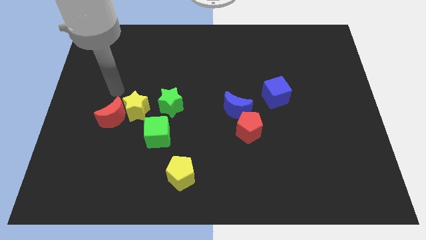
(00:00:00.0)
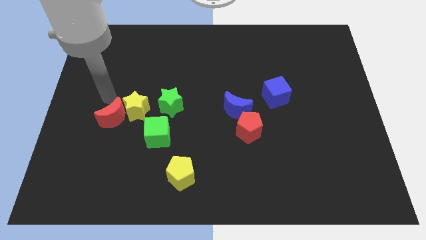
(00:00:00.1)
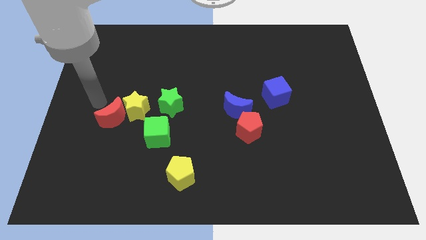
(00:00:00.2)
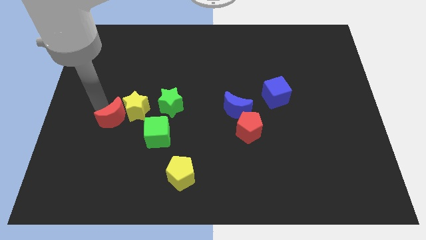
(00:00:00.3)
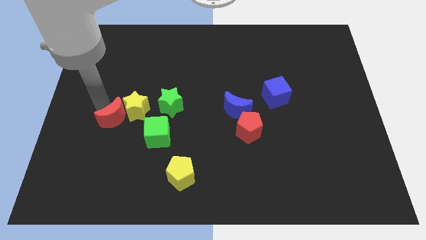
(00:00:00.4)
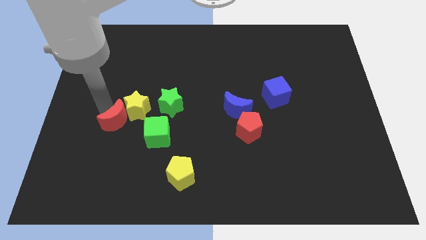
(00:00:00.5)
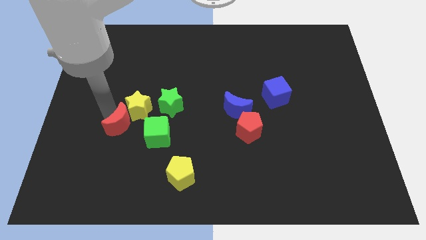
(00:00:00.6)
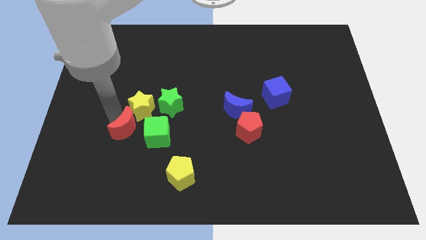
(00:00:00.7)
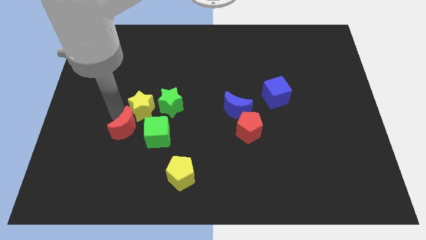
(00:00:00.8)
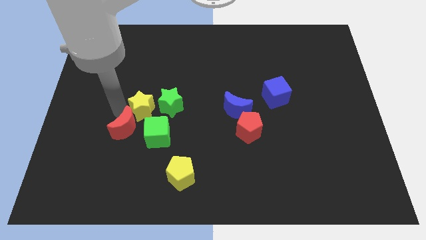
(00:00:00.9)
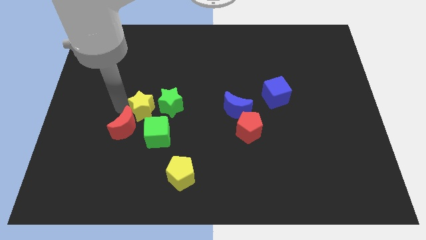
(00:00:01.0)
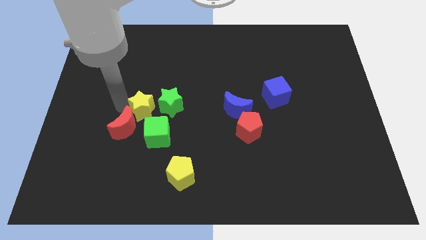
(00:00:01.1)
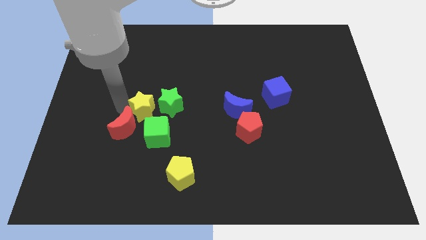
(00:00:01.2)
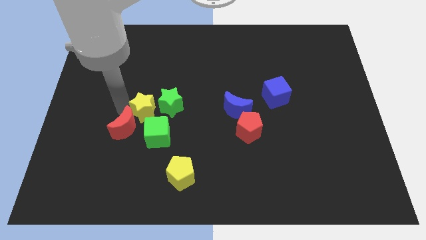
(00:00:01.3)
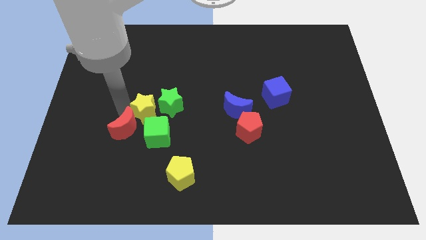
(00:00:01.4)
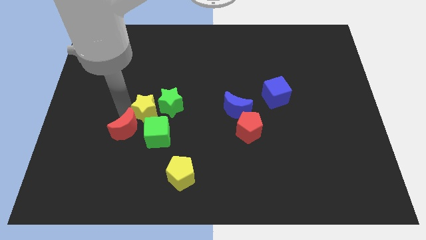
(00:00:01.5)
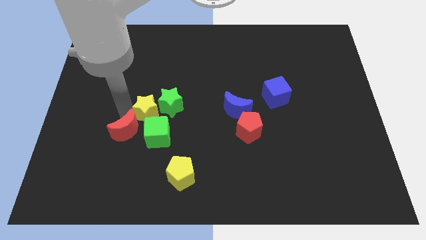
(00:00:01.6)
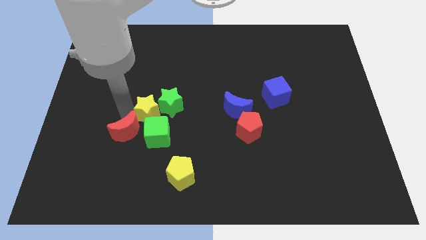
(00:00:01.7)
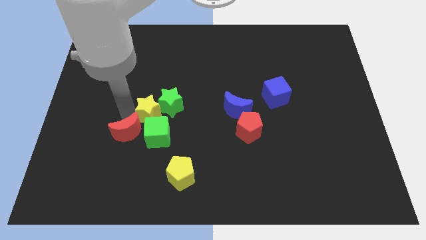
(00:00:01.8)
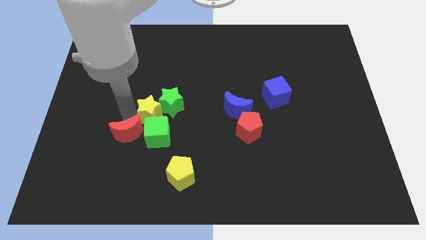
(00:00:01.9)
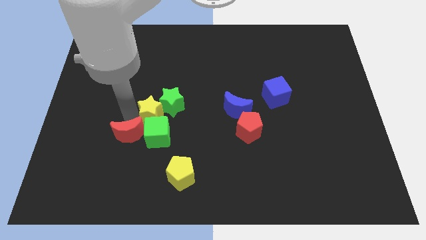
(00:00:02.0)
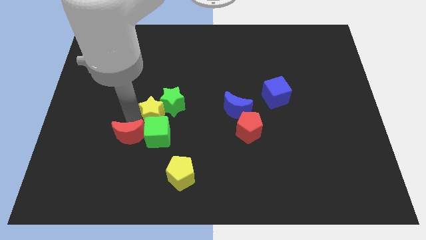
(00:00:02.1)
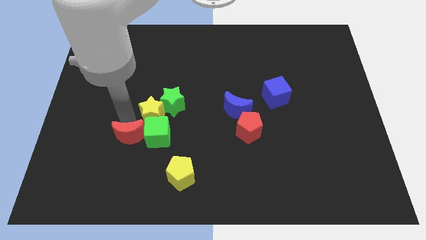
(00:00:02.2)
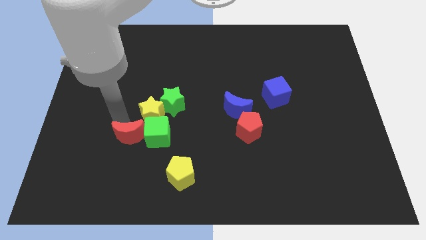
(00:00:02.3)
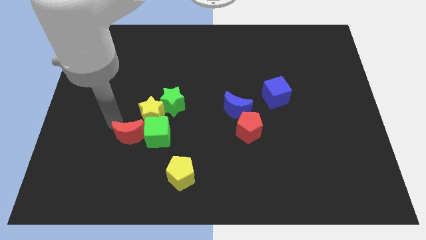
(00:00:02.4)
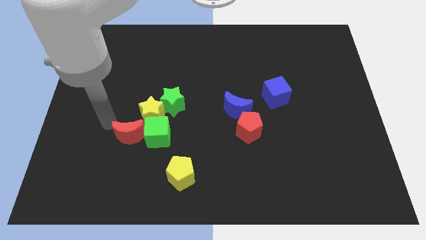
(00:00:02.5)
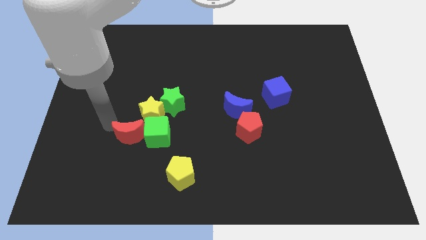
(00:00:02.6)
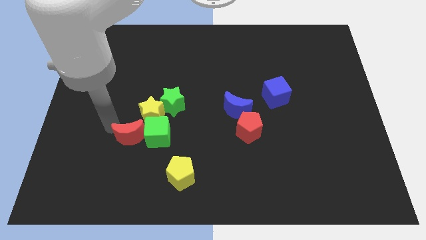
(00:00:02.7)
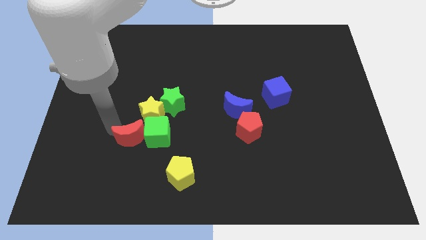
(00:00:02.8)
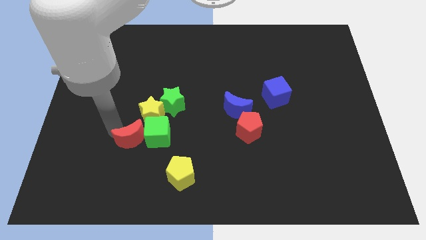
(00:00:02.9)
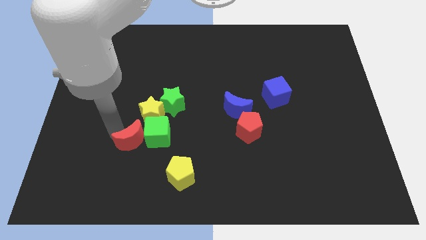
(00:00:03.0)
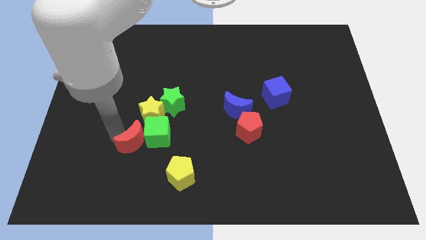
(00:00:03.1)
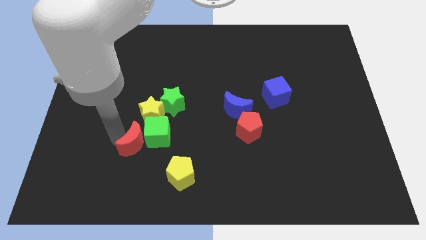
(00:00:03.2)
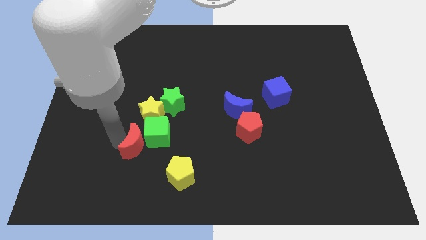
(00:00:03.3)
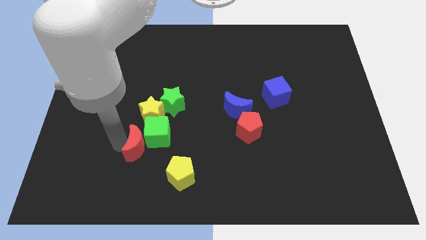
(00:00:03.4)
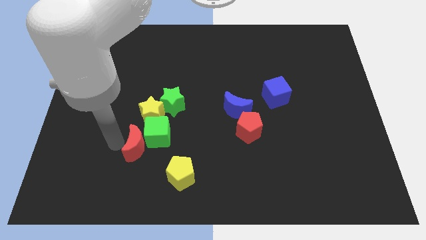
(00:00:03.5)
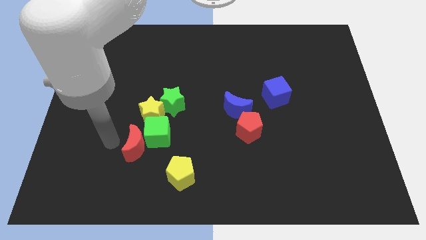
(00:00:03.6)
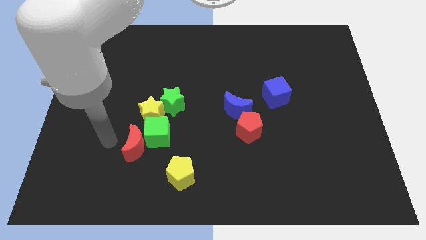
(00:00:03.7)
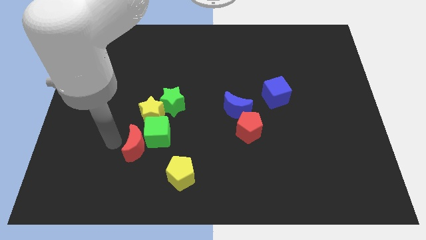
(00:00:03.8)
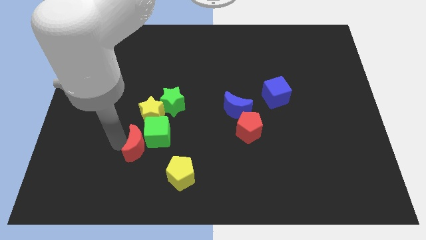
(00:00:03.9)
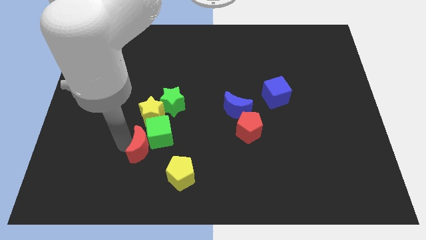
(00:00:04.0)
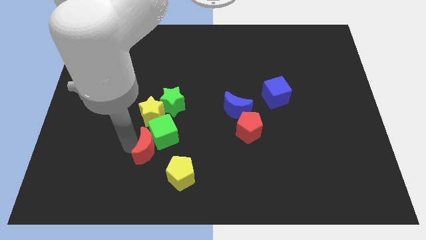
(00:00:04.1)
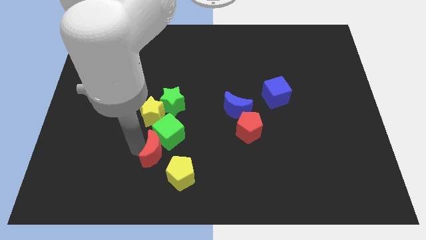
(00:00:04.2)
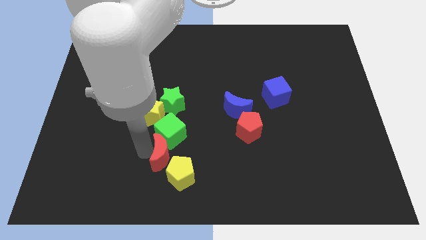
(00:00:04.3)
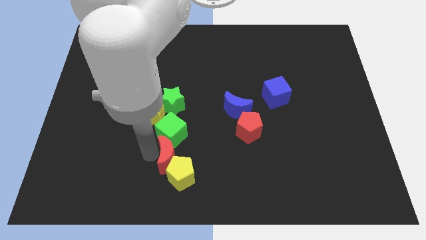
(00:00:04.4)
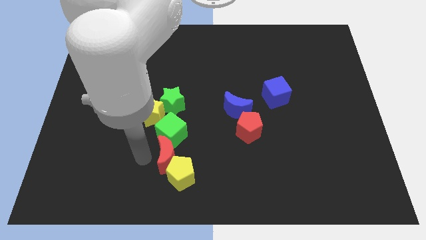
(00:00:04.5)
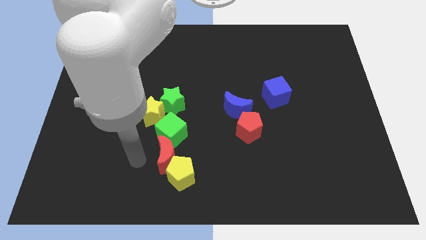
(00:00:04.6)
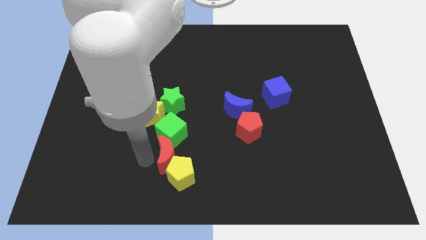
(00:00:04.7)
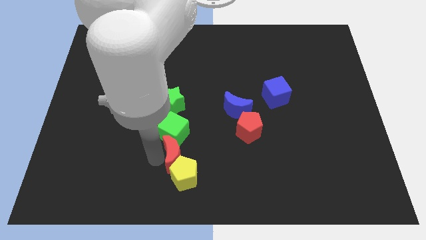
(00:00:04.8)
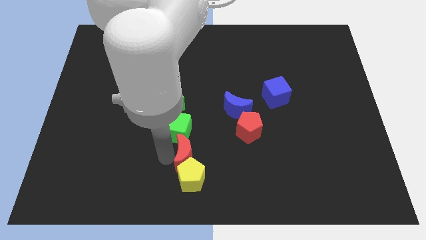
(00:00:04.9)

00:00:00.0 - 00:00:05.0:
move the red moon to the top right of the yellow pentagon

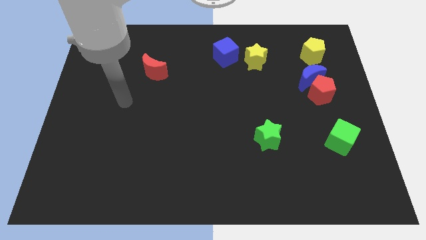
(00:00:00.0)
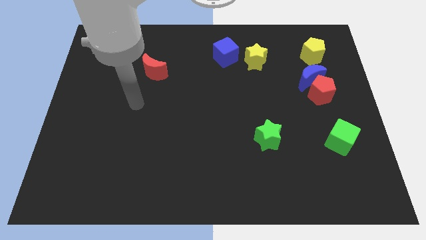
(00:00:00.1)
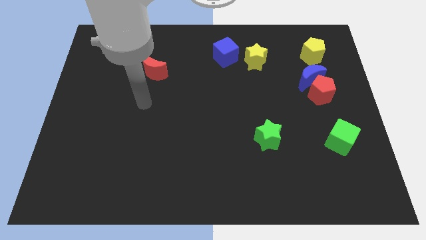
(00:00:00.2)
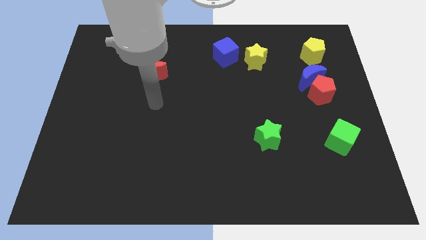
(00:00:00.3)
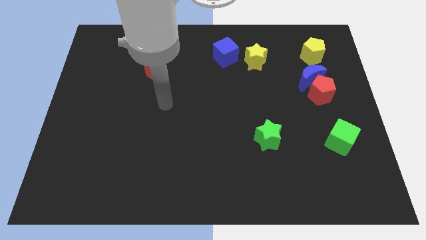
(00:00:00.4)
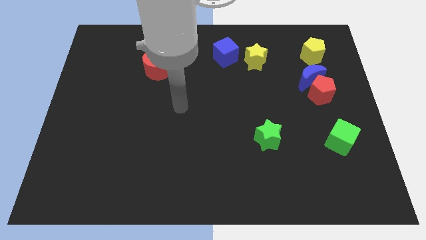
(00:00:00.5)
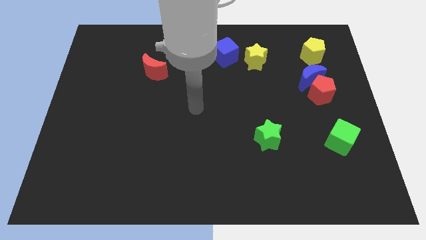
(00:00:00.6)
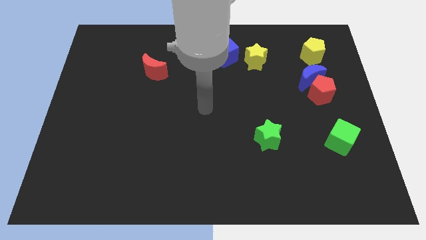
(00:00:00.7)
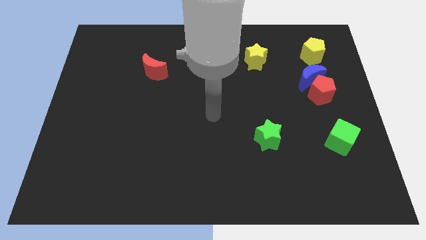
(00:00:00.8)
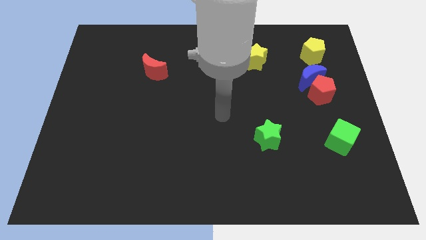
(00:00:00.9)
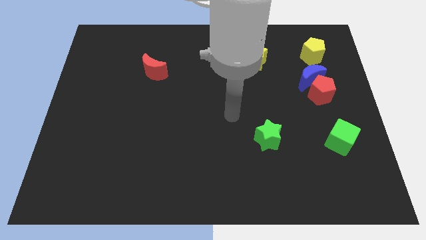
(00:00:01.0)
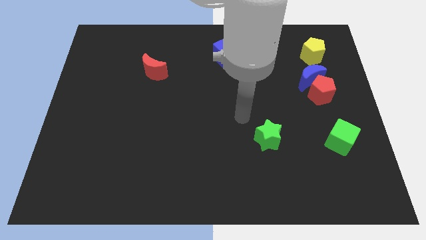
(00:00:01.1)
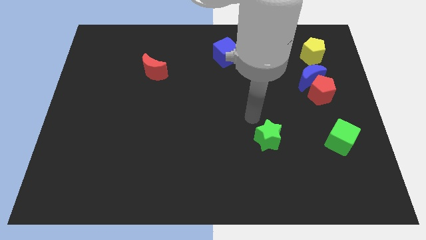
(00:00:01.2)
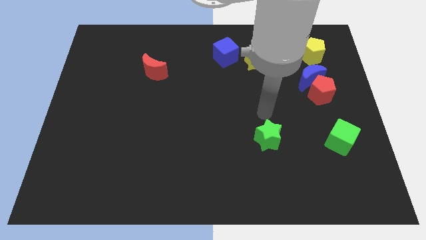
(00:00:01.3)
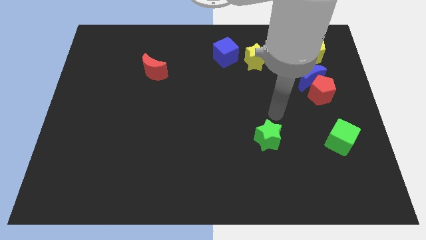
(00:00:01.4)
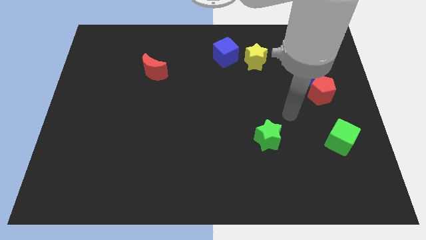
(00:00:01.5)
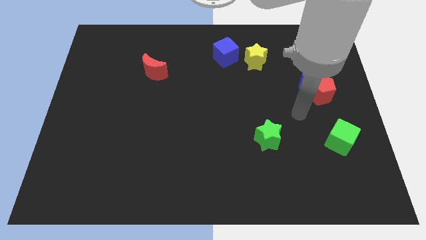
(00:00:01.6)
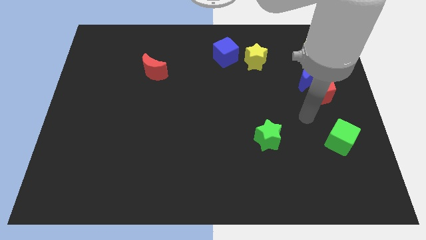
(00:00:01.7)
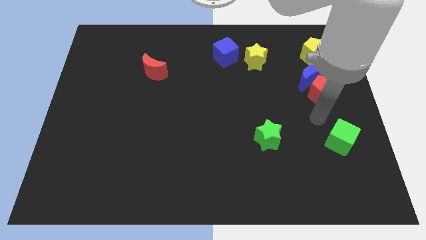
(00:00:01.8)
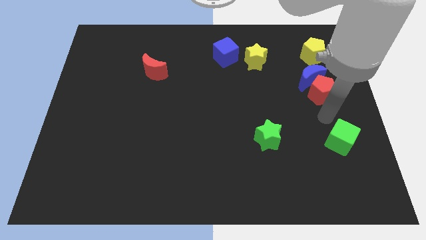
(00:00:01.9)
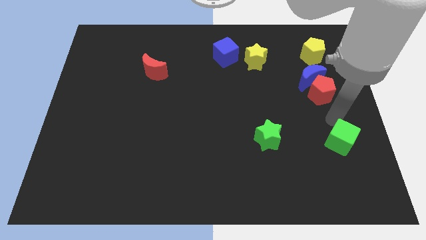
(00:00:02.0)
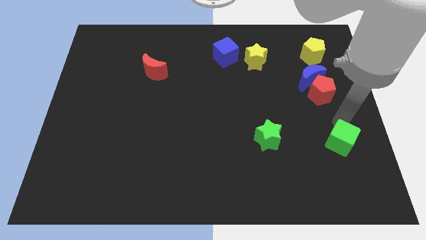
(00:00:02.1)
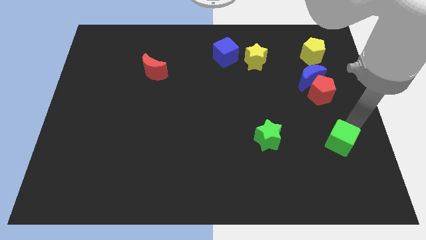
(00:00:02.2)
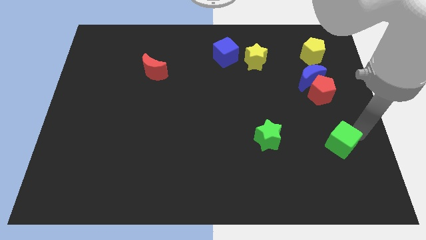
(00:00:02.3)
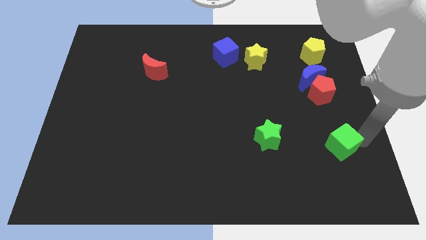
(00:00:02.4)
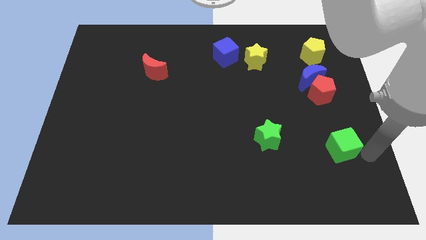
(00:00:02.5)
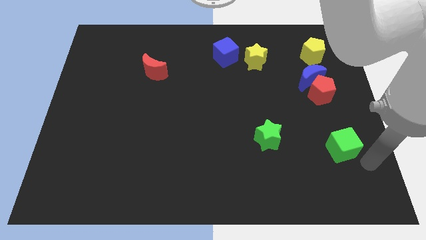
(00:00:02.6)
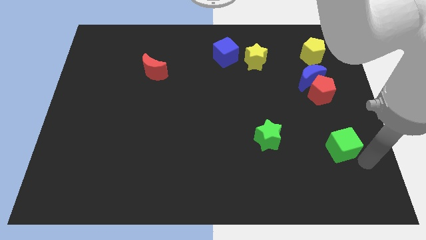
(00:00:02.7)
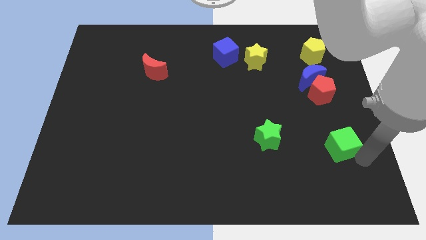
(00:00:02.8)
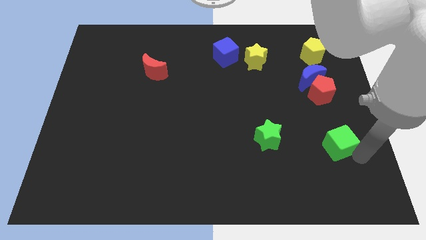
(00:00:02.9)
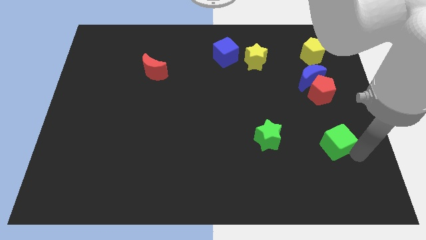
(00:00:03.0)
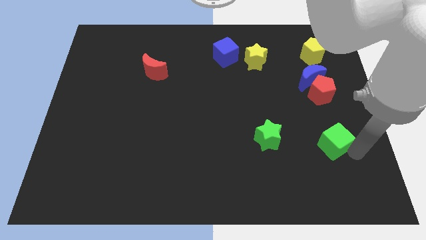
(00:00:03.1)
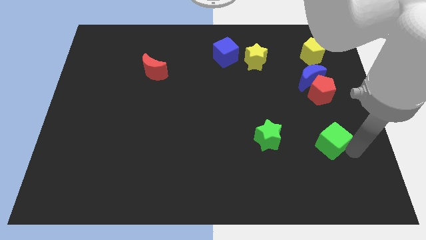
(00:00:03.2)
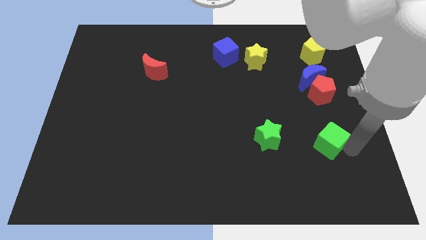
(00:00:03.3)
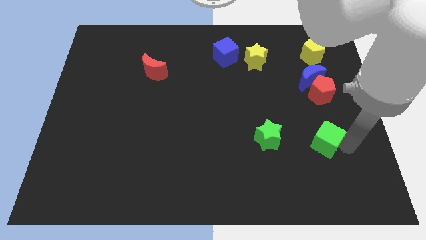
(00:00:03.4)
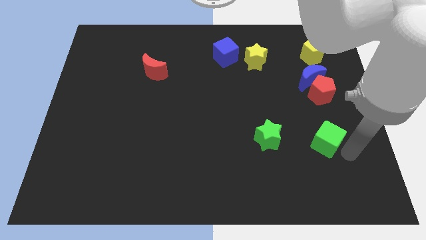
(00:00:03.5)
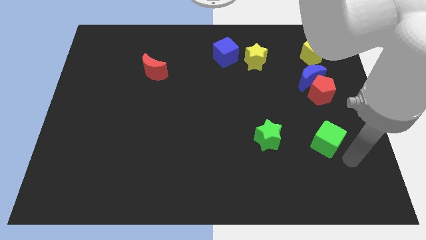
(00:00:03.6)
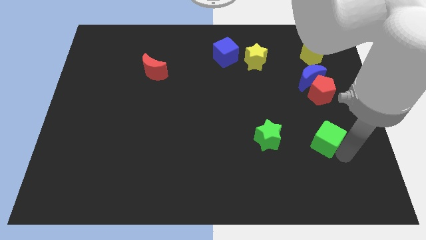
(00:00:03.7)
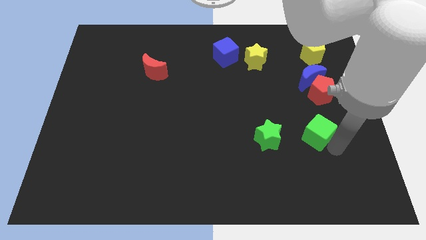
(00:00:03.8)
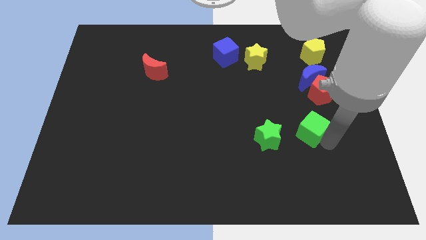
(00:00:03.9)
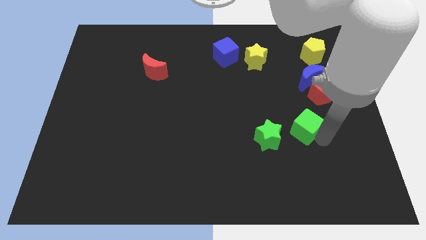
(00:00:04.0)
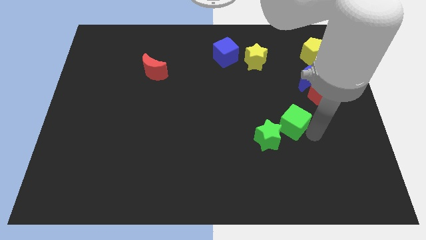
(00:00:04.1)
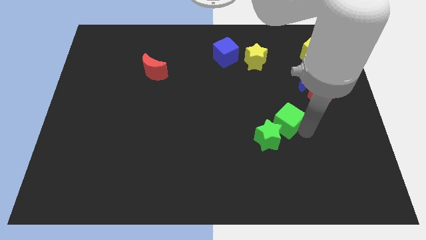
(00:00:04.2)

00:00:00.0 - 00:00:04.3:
push the green cube to the top side of the green star
